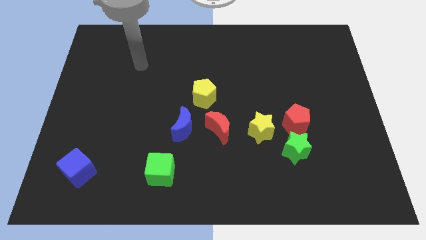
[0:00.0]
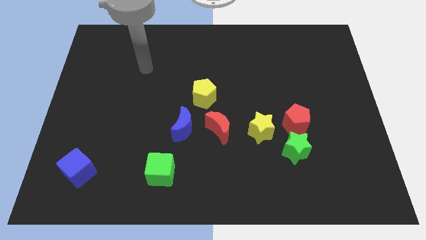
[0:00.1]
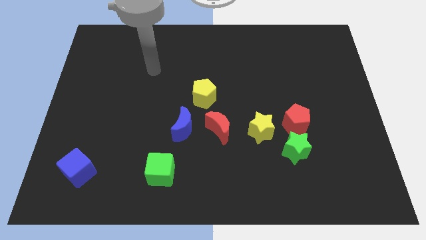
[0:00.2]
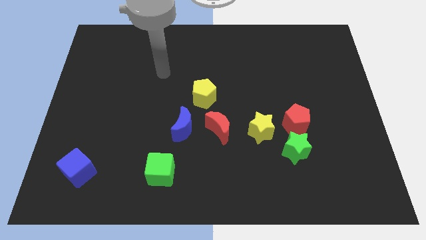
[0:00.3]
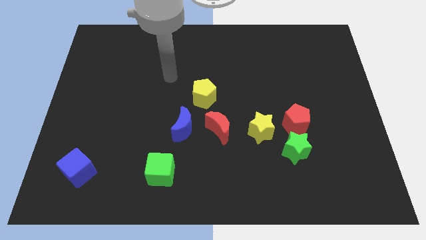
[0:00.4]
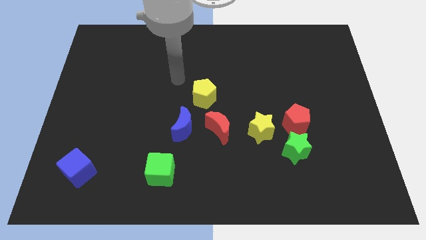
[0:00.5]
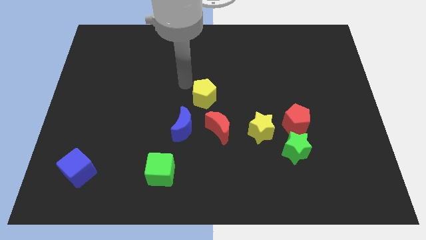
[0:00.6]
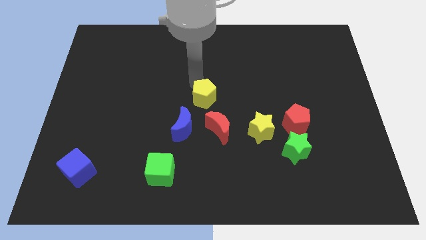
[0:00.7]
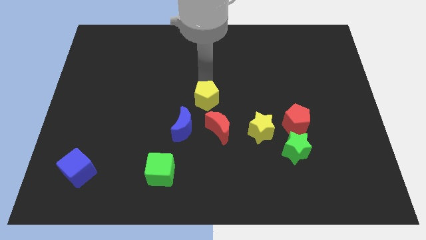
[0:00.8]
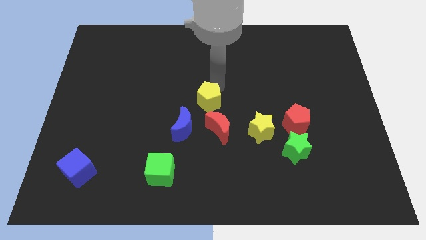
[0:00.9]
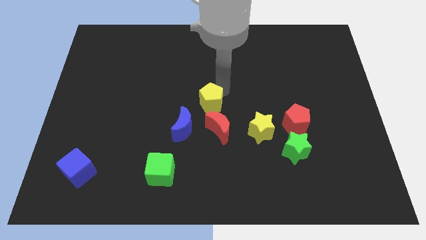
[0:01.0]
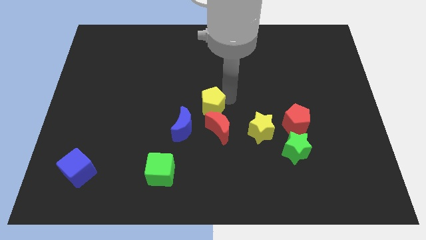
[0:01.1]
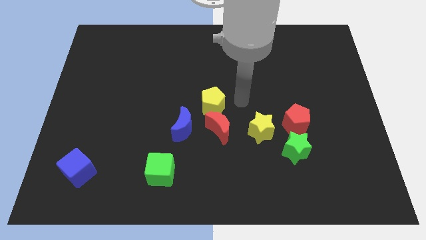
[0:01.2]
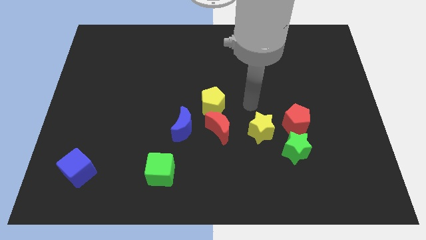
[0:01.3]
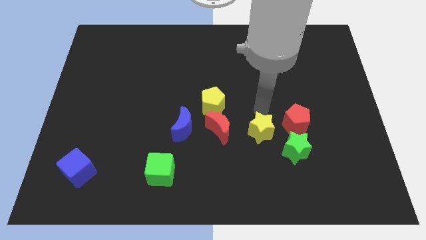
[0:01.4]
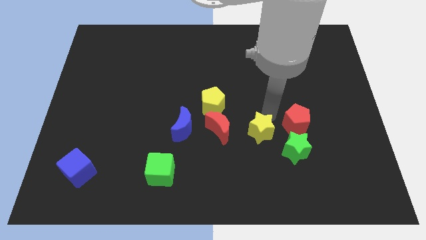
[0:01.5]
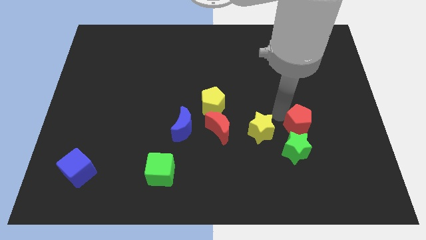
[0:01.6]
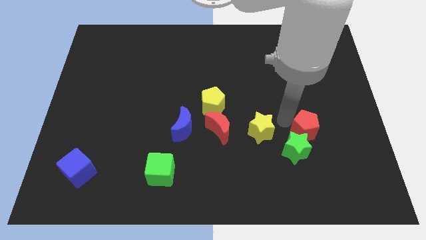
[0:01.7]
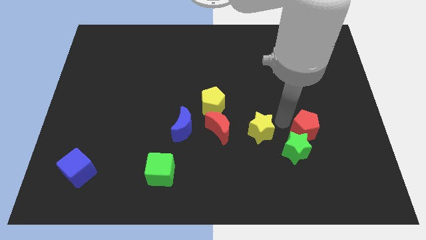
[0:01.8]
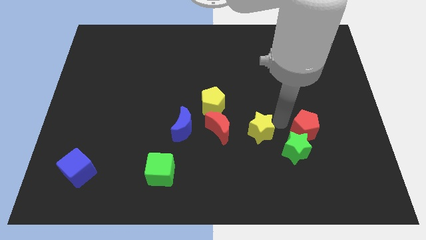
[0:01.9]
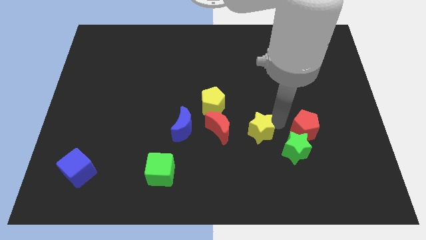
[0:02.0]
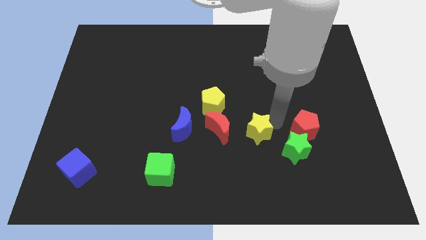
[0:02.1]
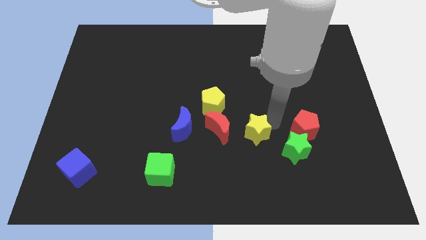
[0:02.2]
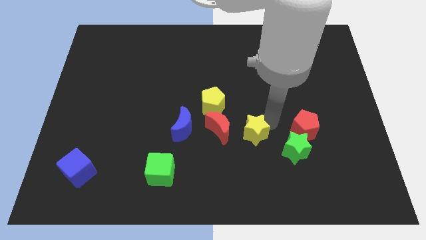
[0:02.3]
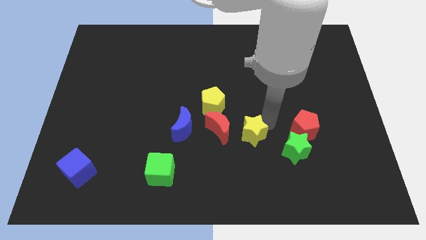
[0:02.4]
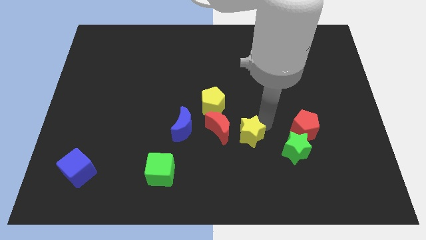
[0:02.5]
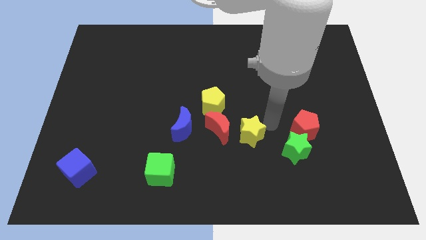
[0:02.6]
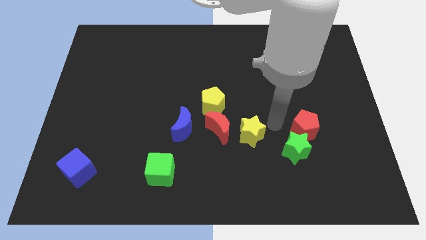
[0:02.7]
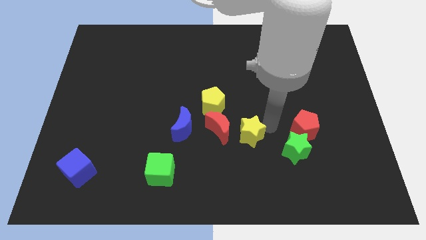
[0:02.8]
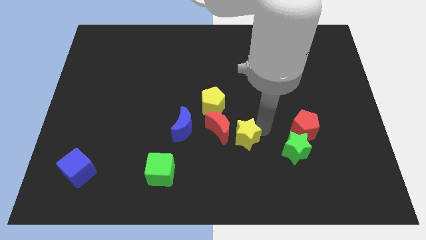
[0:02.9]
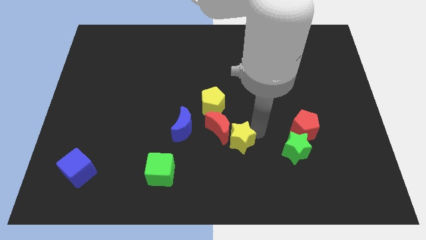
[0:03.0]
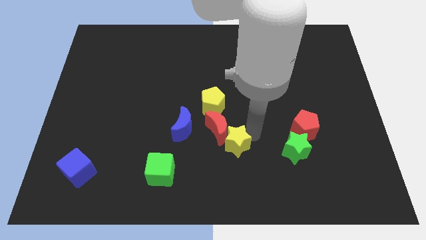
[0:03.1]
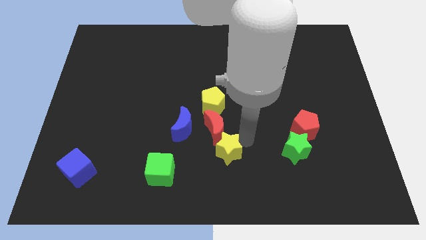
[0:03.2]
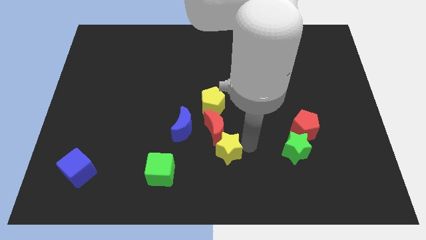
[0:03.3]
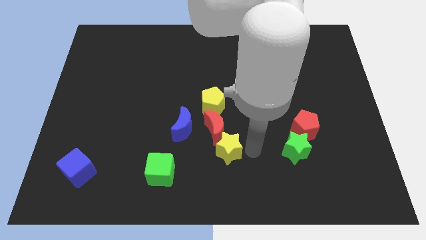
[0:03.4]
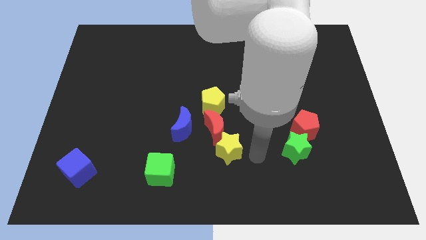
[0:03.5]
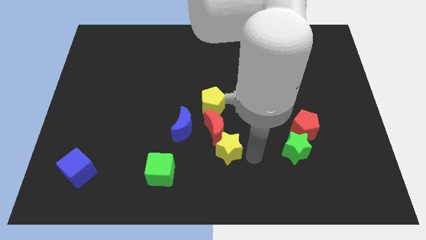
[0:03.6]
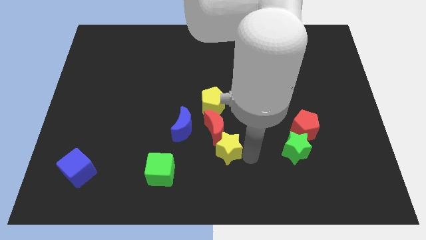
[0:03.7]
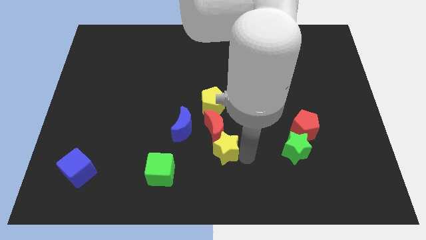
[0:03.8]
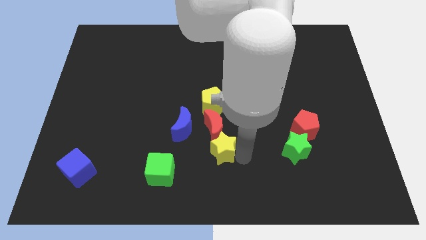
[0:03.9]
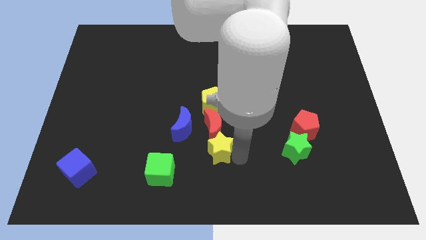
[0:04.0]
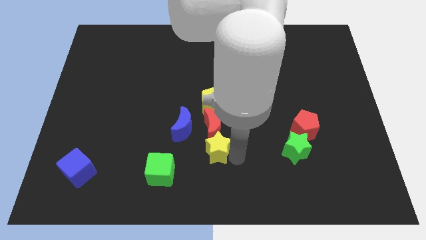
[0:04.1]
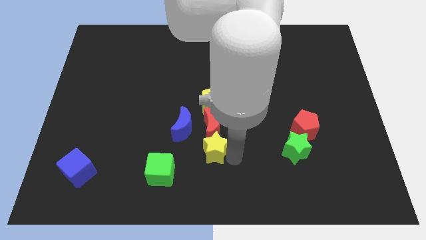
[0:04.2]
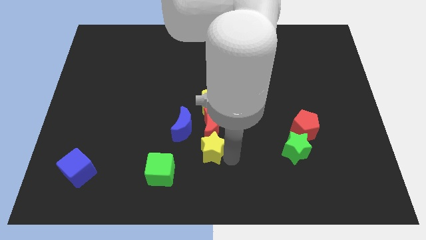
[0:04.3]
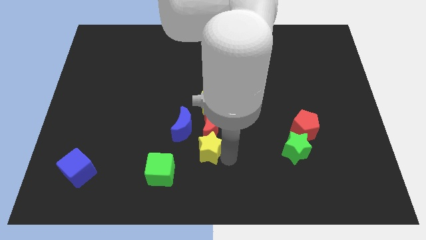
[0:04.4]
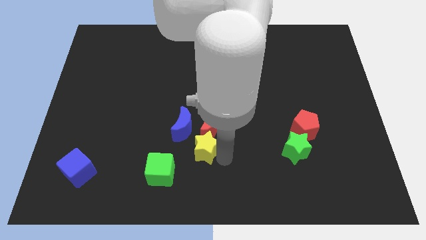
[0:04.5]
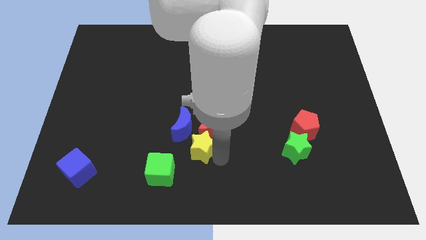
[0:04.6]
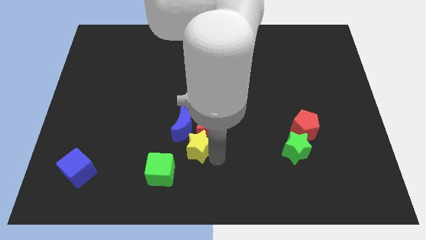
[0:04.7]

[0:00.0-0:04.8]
slide the yellow star towards the blue moon

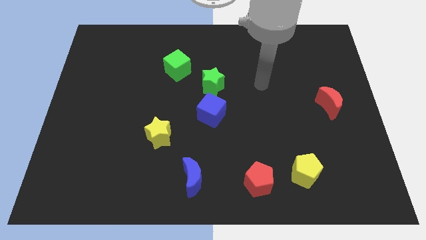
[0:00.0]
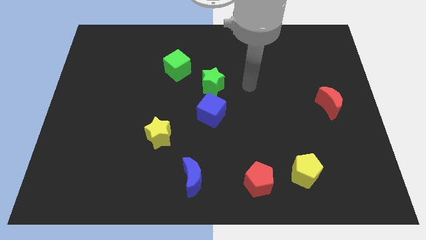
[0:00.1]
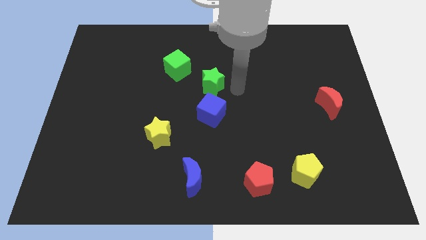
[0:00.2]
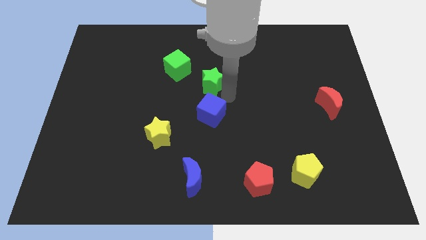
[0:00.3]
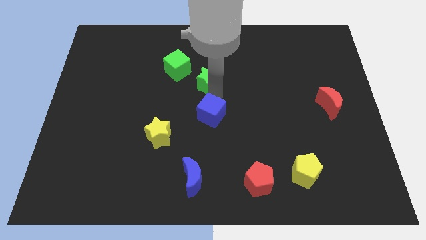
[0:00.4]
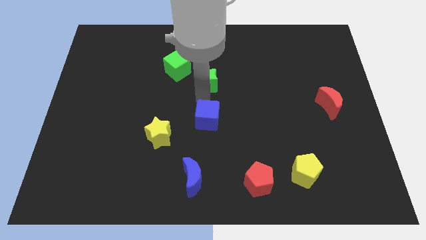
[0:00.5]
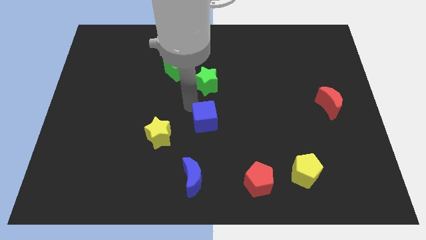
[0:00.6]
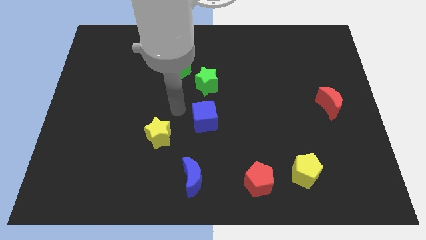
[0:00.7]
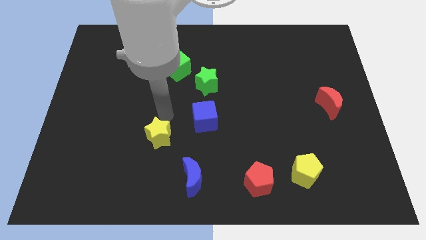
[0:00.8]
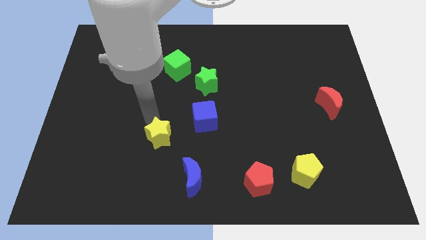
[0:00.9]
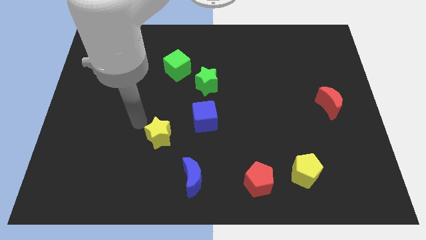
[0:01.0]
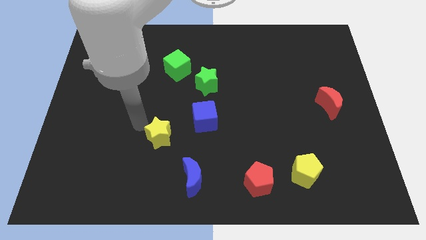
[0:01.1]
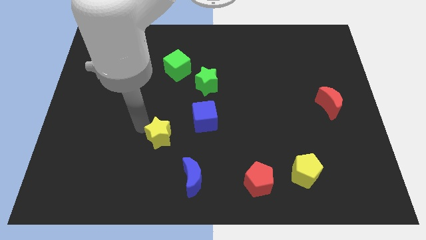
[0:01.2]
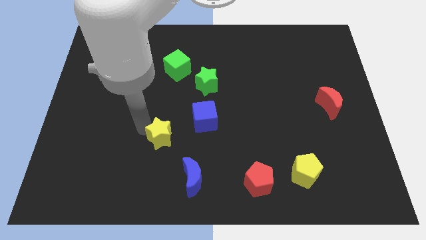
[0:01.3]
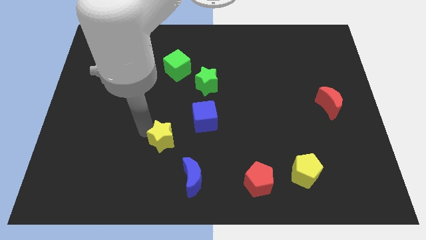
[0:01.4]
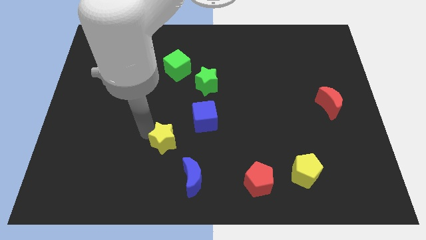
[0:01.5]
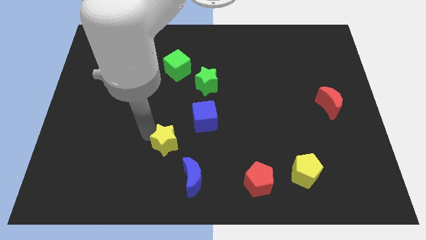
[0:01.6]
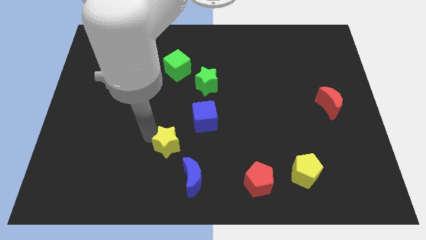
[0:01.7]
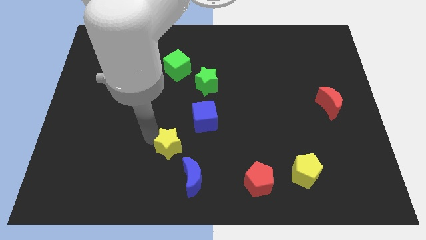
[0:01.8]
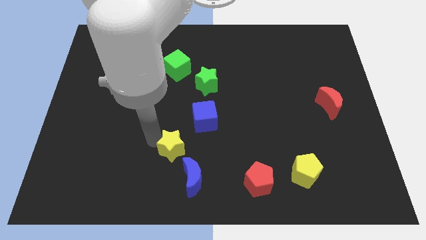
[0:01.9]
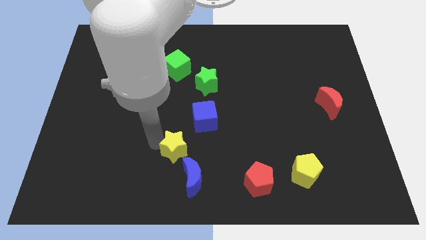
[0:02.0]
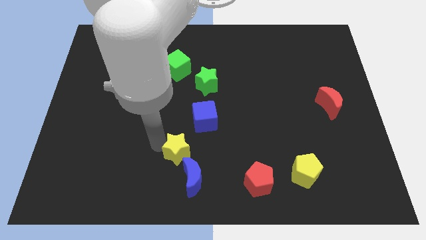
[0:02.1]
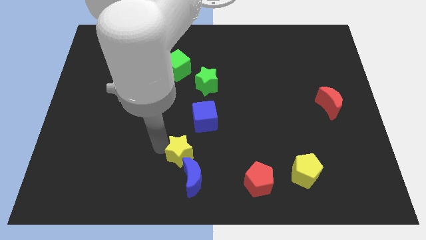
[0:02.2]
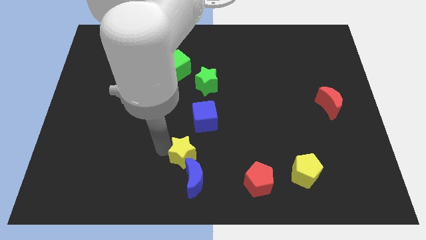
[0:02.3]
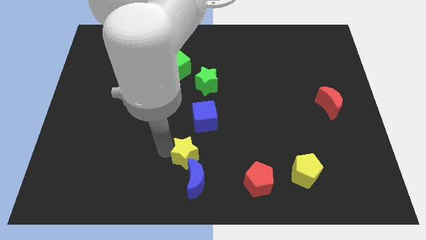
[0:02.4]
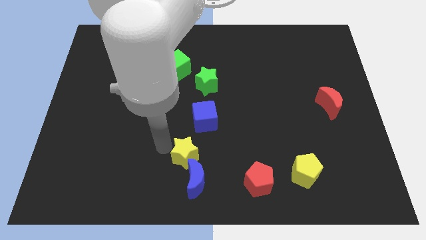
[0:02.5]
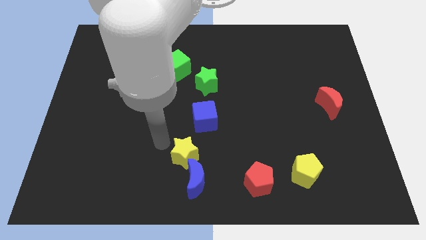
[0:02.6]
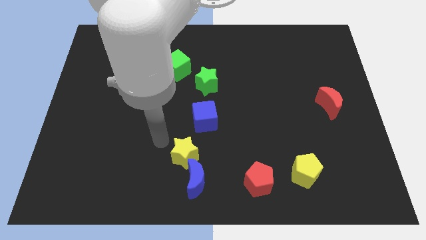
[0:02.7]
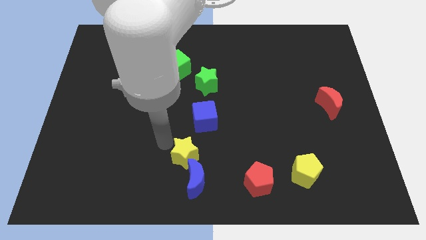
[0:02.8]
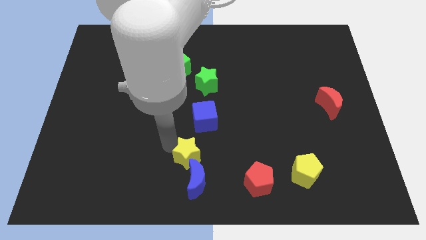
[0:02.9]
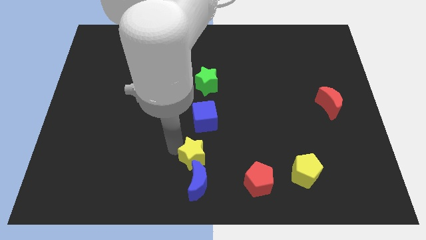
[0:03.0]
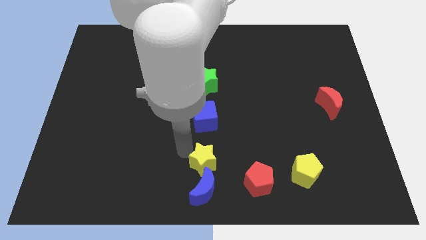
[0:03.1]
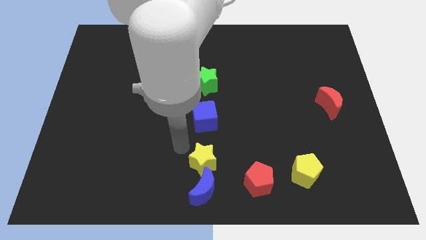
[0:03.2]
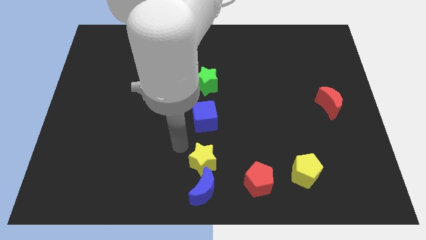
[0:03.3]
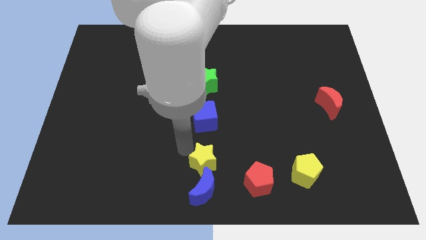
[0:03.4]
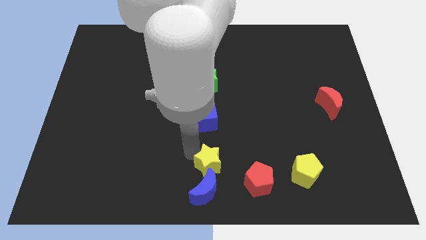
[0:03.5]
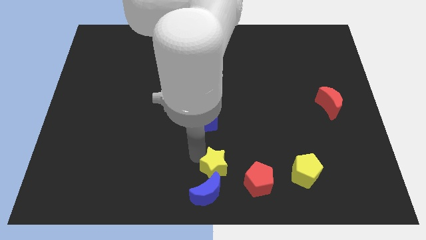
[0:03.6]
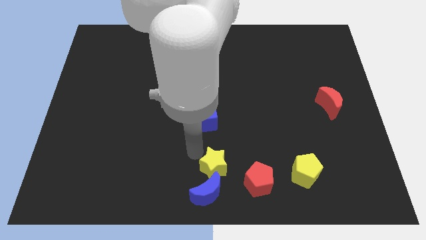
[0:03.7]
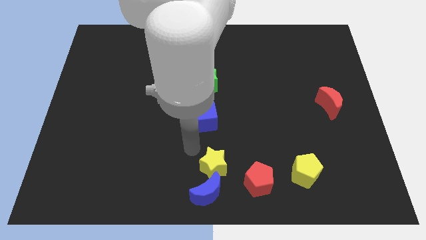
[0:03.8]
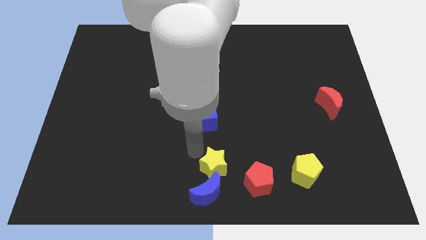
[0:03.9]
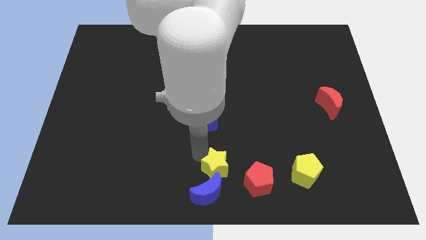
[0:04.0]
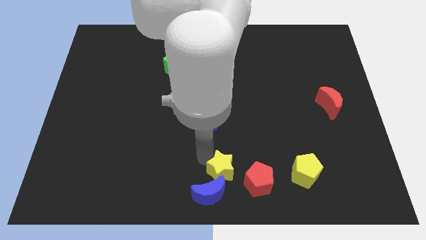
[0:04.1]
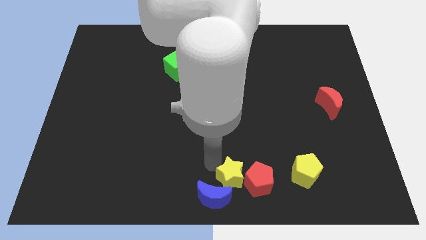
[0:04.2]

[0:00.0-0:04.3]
put the yellow star towards the red pentagon
